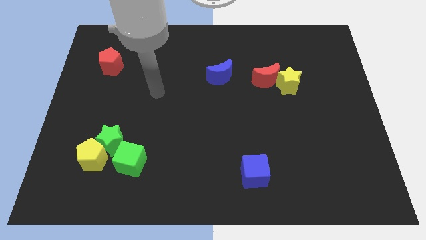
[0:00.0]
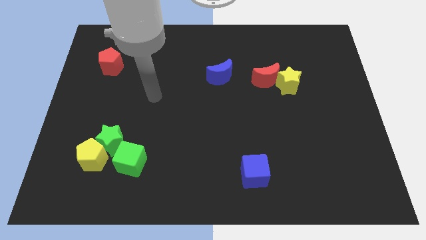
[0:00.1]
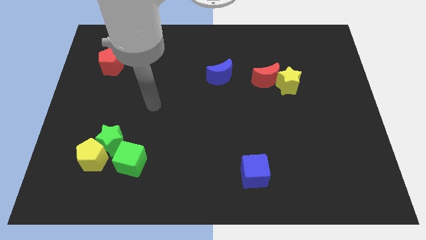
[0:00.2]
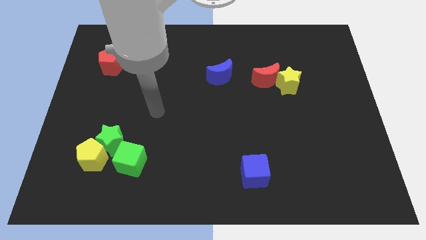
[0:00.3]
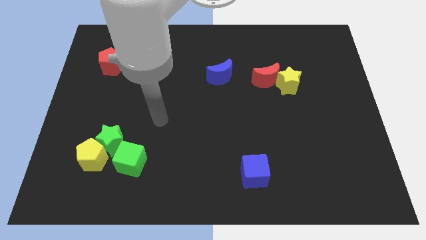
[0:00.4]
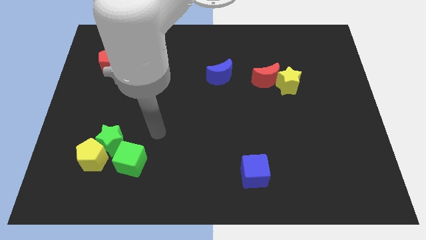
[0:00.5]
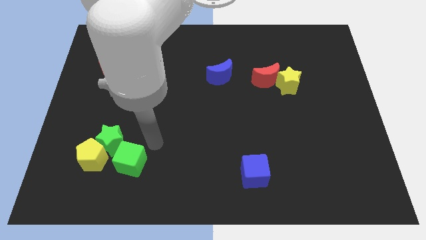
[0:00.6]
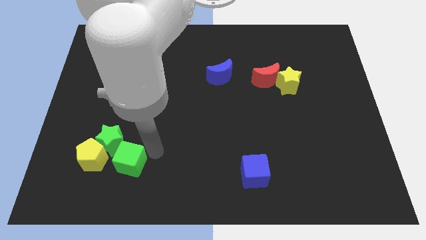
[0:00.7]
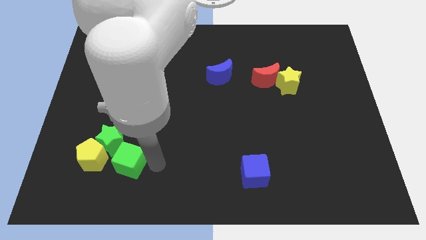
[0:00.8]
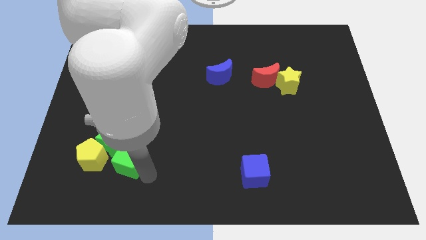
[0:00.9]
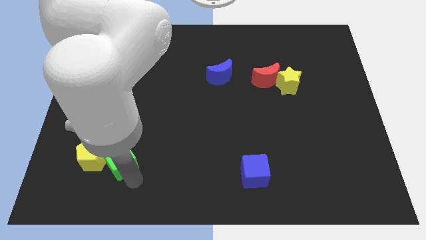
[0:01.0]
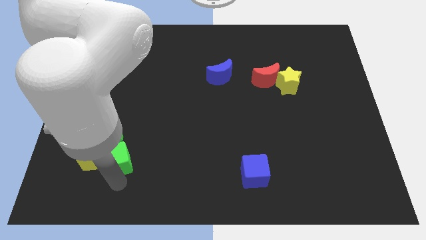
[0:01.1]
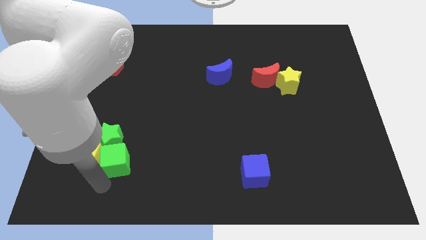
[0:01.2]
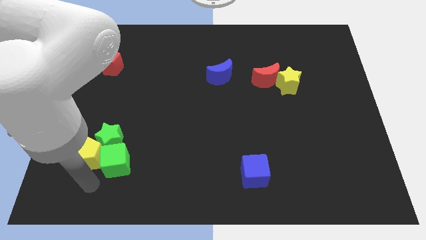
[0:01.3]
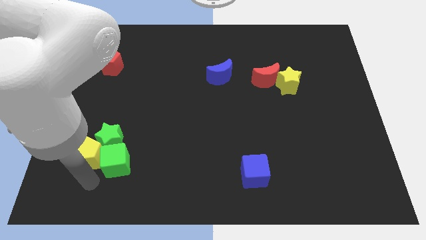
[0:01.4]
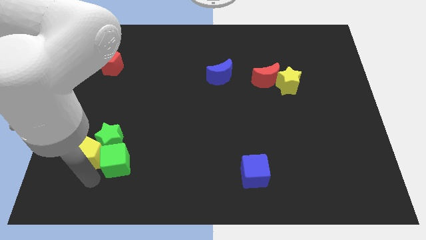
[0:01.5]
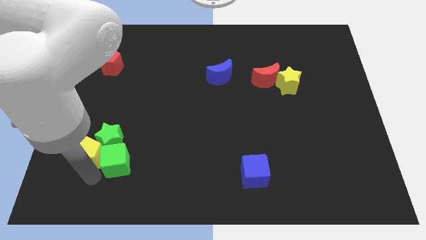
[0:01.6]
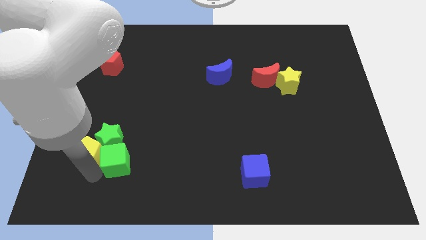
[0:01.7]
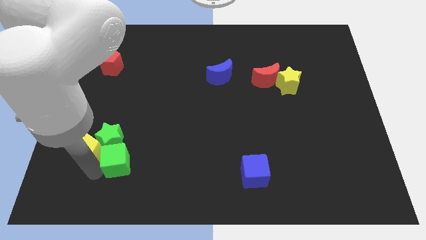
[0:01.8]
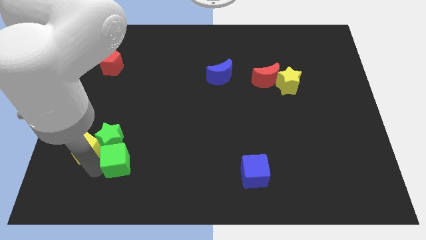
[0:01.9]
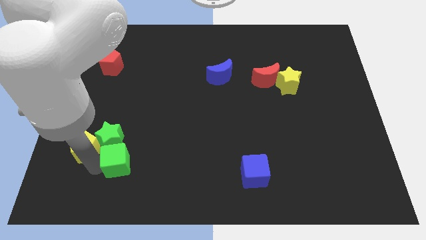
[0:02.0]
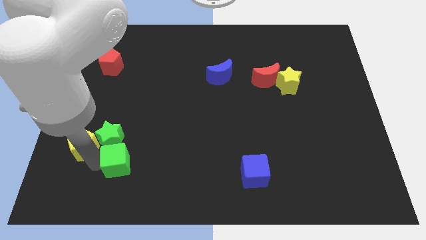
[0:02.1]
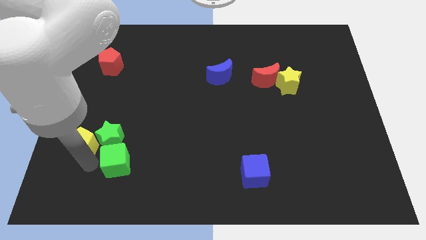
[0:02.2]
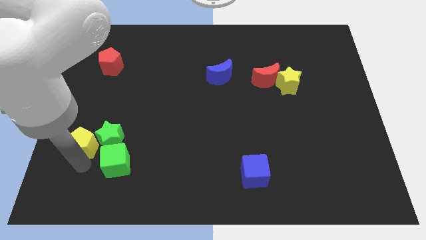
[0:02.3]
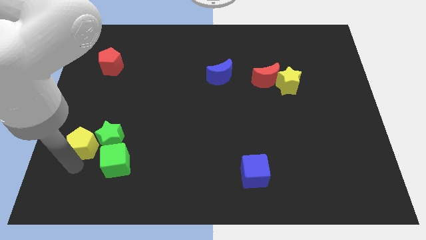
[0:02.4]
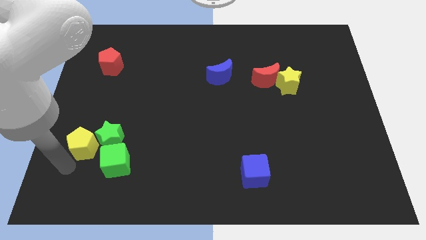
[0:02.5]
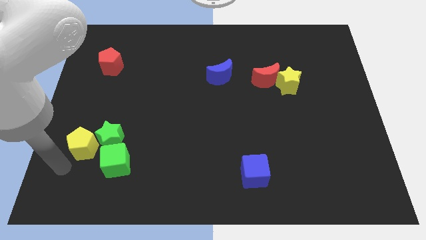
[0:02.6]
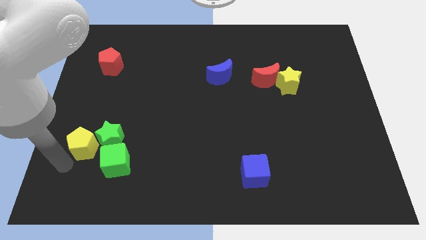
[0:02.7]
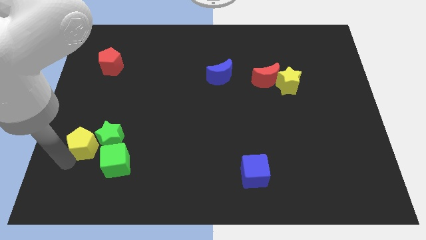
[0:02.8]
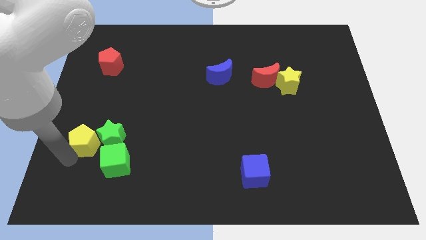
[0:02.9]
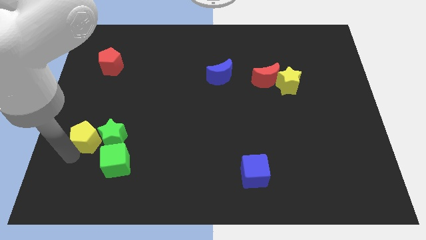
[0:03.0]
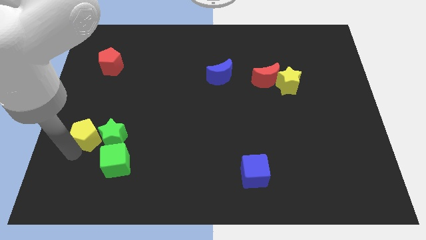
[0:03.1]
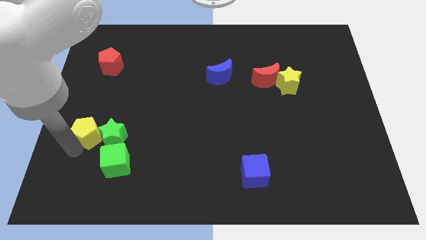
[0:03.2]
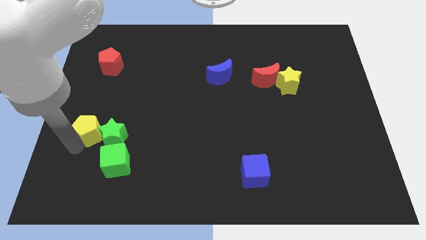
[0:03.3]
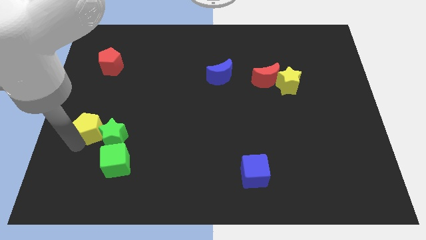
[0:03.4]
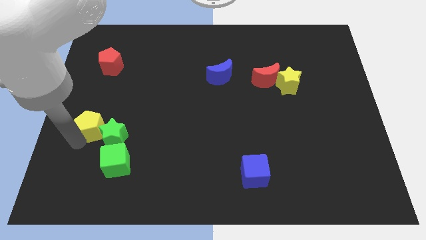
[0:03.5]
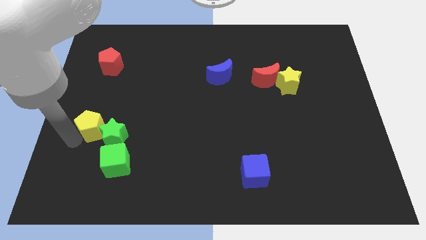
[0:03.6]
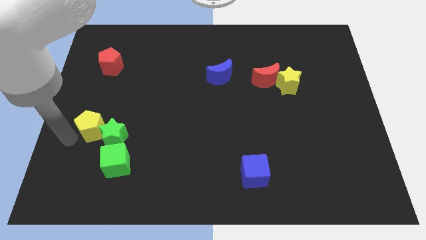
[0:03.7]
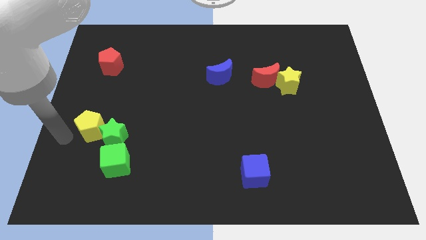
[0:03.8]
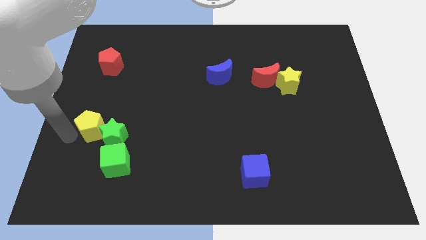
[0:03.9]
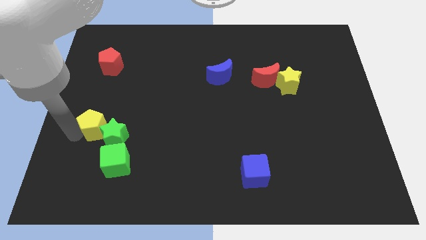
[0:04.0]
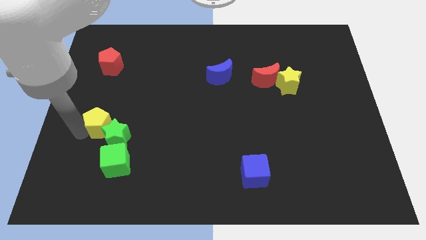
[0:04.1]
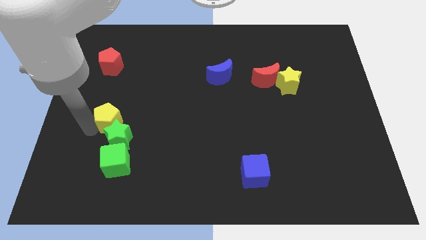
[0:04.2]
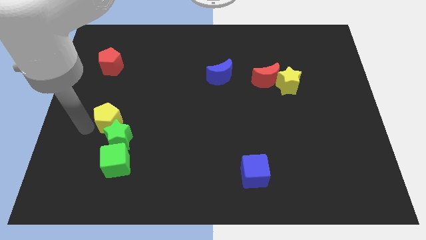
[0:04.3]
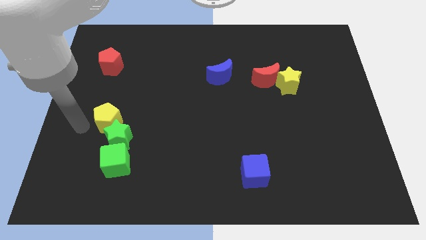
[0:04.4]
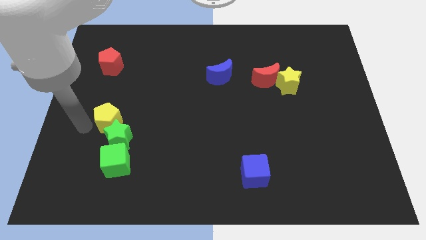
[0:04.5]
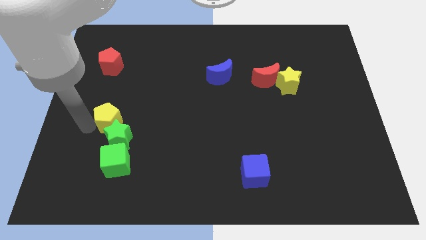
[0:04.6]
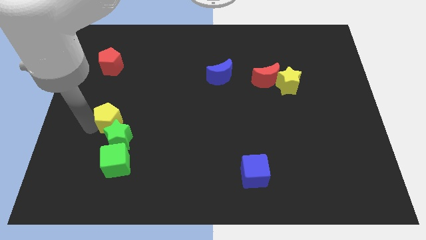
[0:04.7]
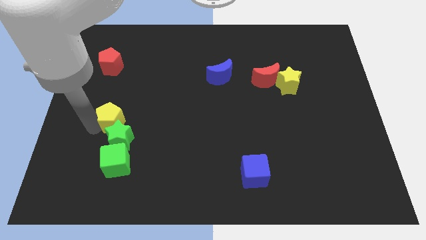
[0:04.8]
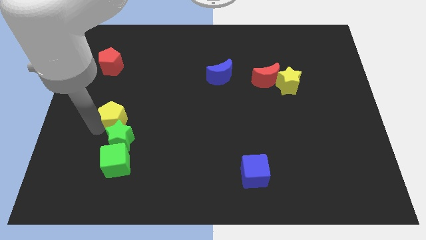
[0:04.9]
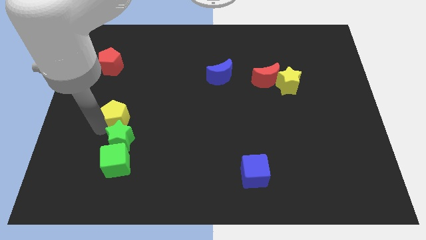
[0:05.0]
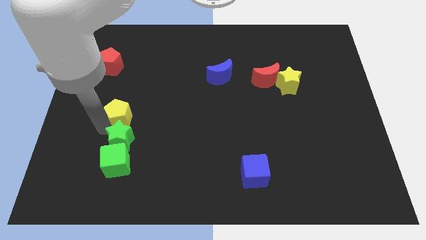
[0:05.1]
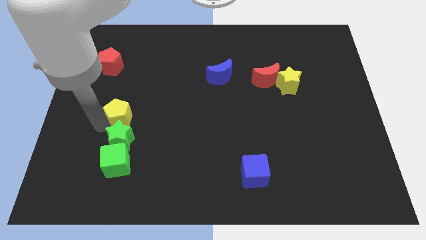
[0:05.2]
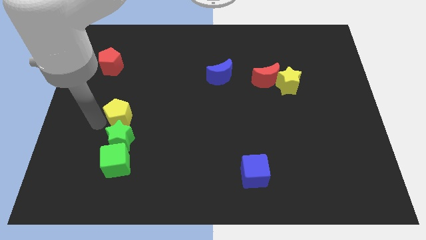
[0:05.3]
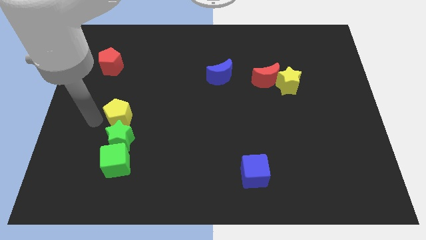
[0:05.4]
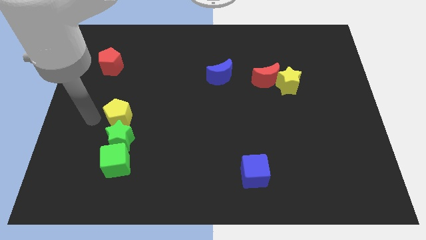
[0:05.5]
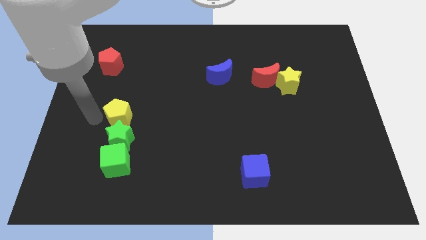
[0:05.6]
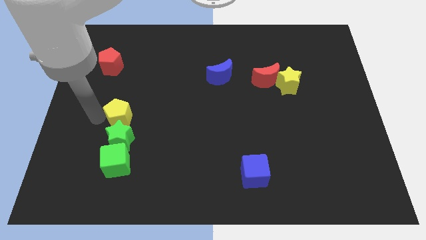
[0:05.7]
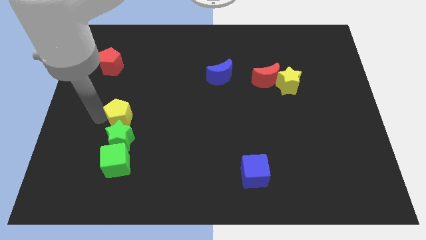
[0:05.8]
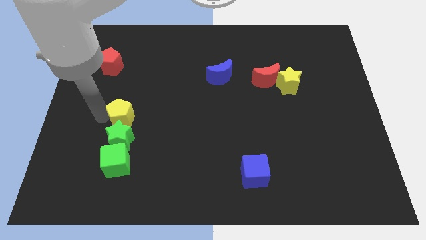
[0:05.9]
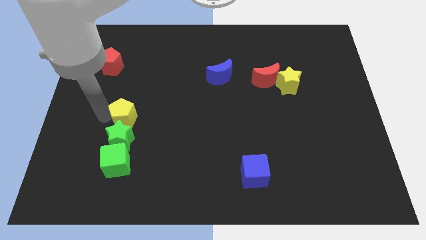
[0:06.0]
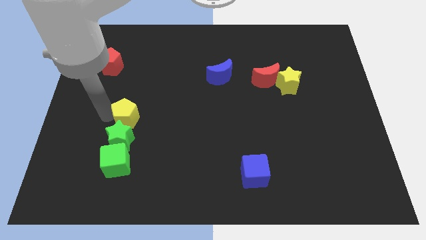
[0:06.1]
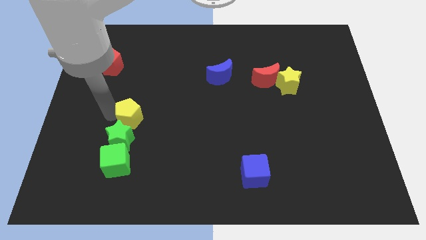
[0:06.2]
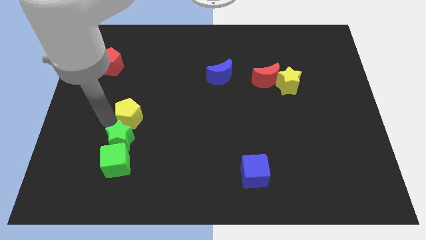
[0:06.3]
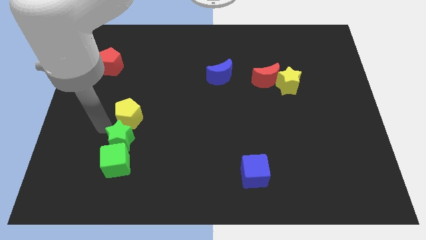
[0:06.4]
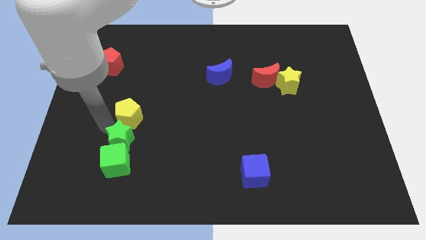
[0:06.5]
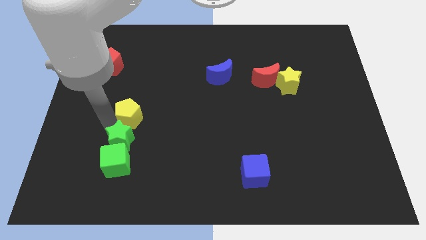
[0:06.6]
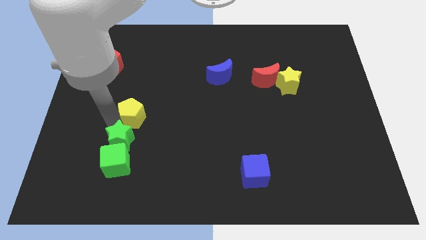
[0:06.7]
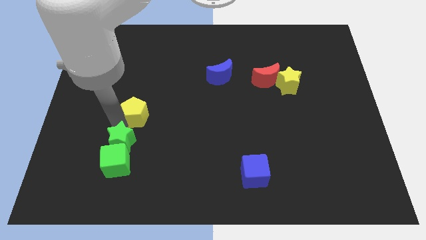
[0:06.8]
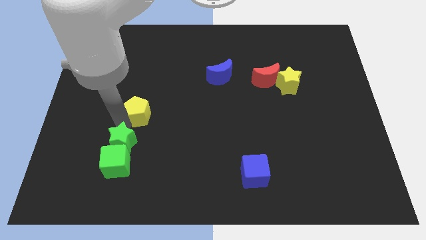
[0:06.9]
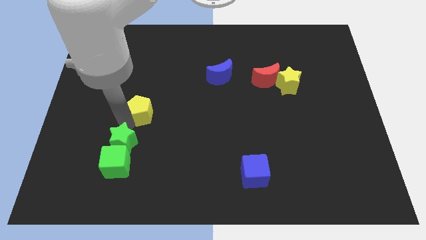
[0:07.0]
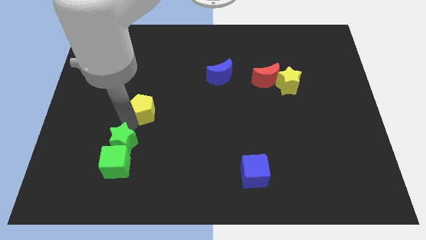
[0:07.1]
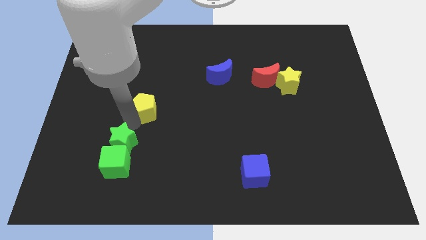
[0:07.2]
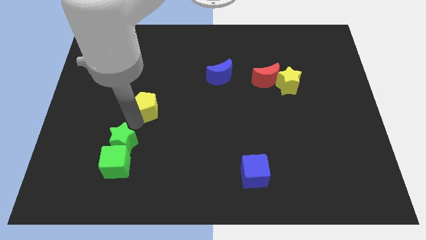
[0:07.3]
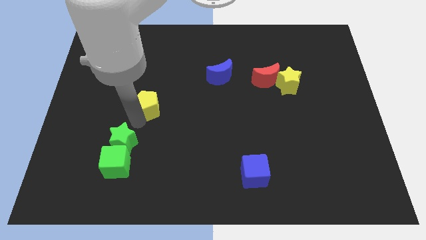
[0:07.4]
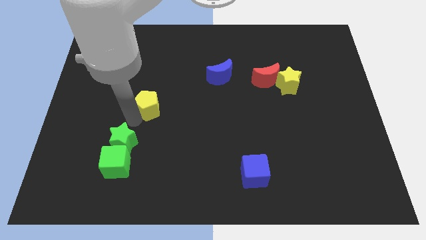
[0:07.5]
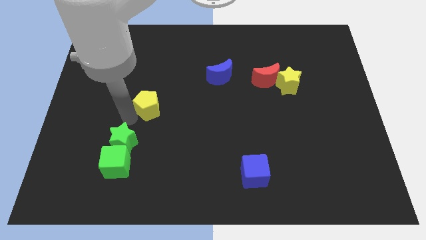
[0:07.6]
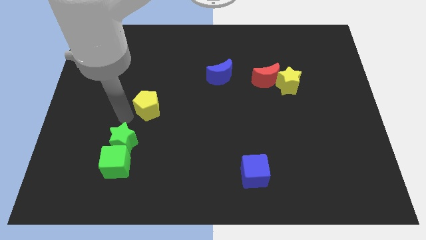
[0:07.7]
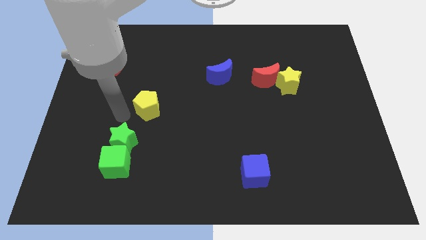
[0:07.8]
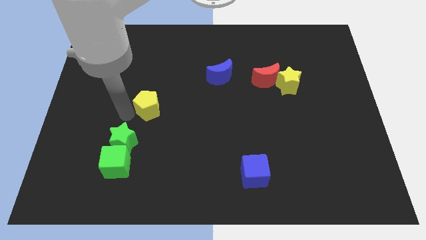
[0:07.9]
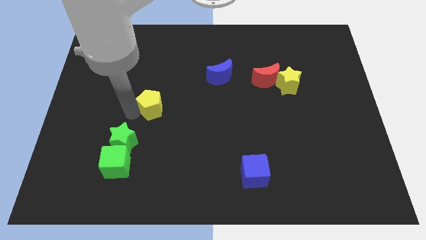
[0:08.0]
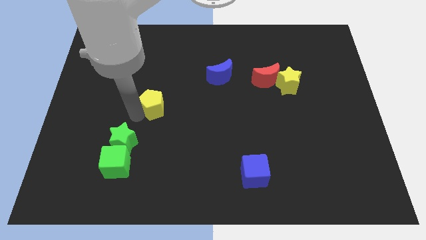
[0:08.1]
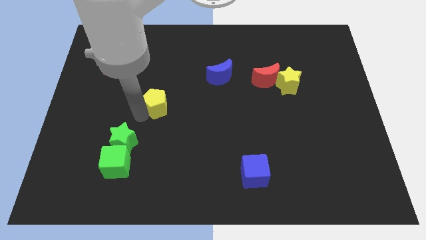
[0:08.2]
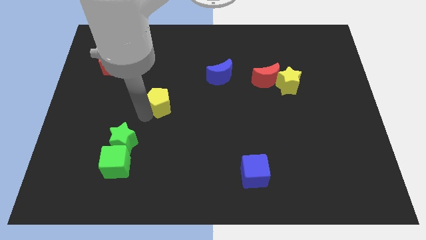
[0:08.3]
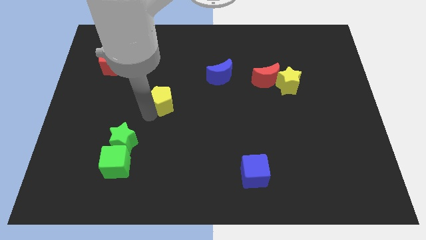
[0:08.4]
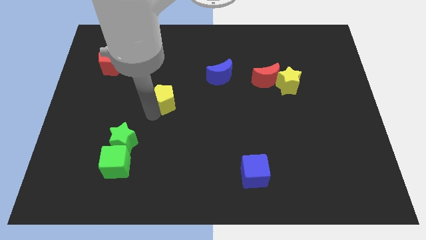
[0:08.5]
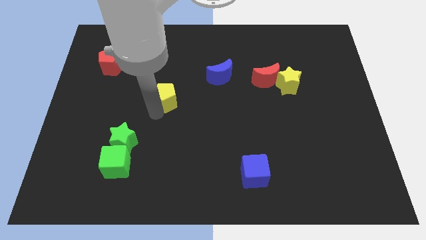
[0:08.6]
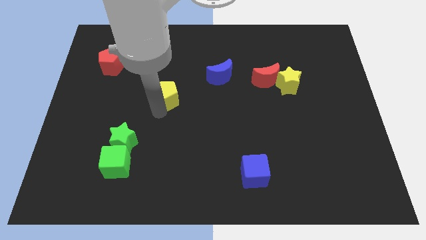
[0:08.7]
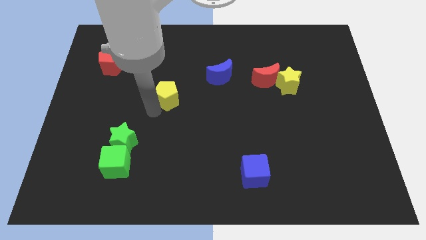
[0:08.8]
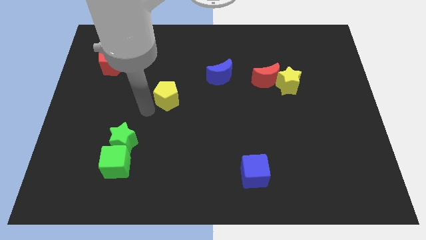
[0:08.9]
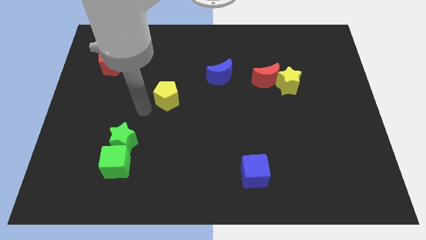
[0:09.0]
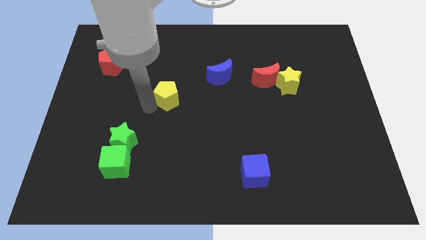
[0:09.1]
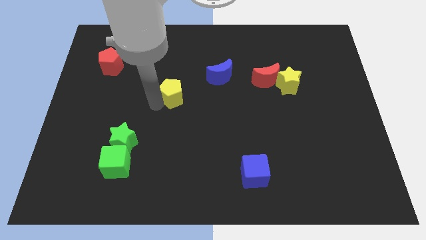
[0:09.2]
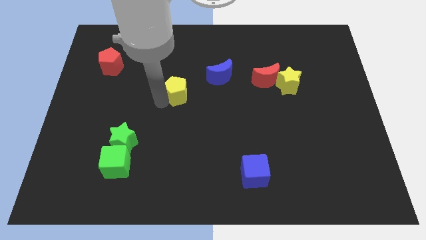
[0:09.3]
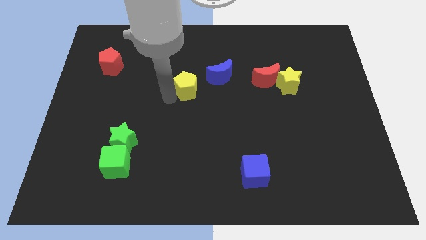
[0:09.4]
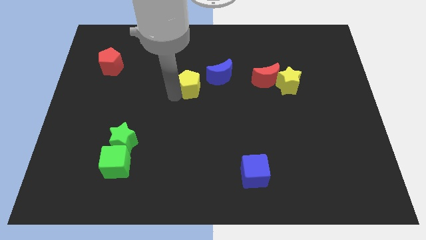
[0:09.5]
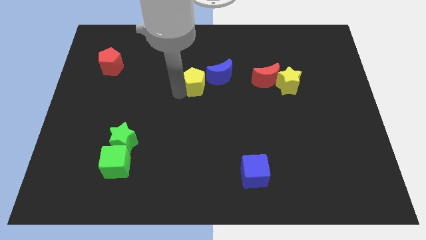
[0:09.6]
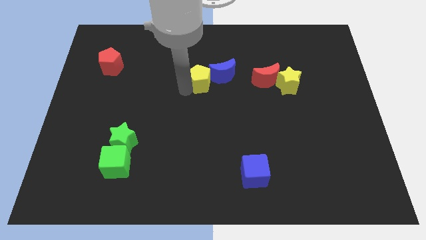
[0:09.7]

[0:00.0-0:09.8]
push the yellow pentagon close to the blue moon
